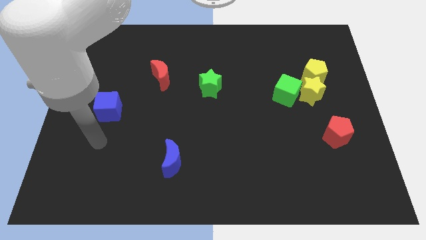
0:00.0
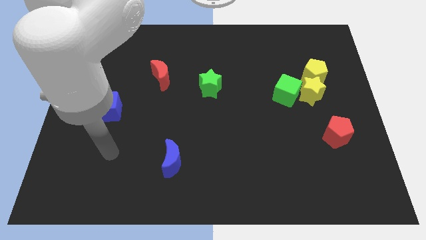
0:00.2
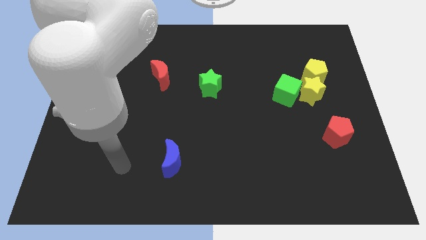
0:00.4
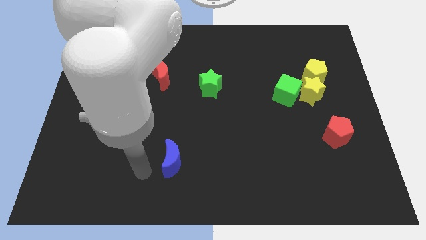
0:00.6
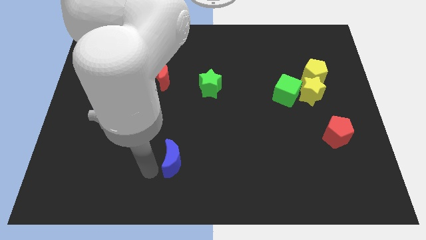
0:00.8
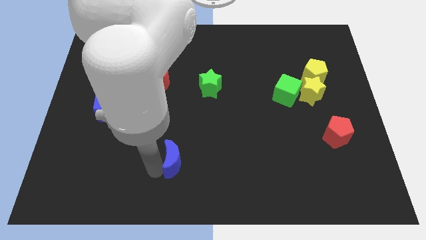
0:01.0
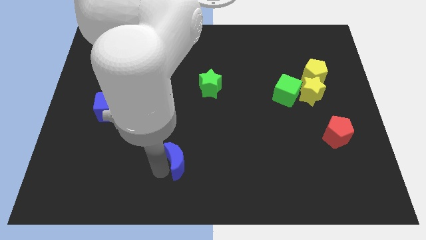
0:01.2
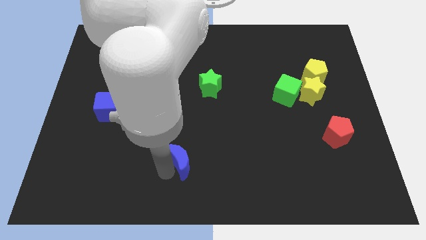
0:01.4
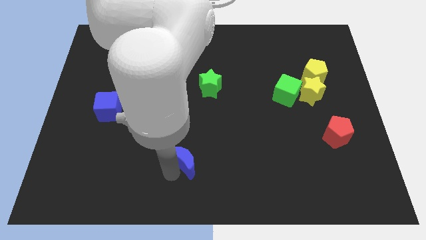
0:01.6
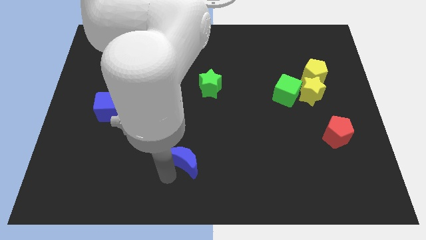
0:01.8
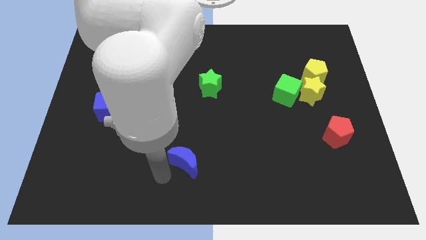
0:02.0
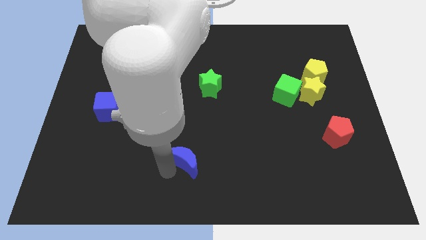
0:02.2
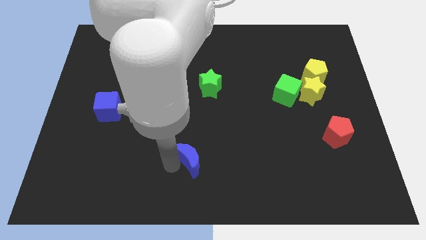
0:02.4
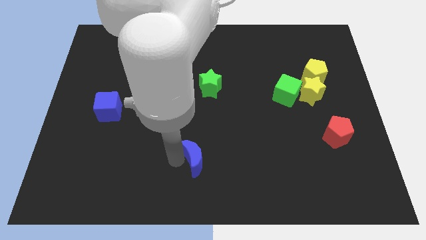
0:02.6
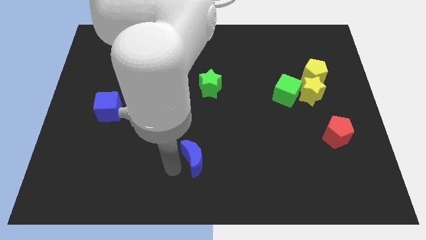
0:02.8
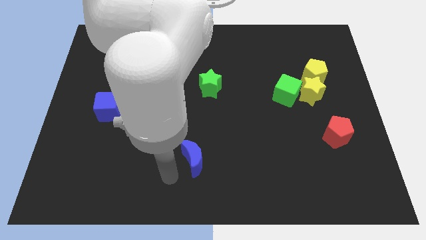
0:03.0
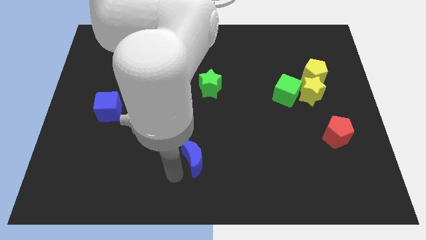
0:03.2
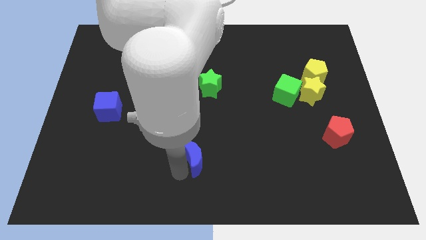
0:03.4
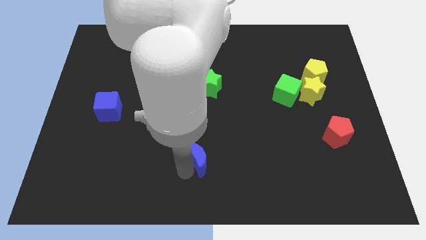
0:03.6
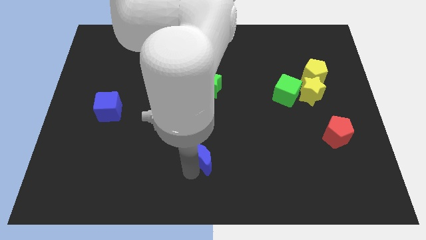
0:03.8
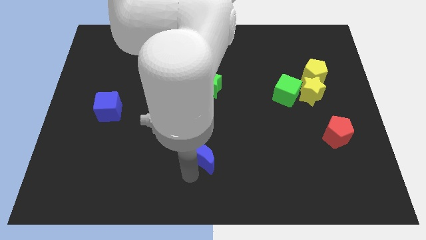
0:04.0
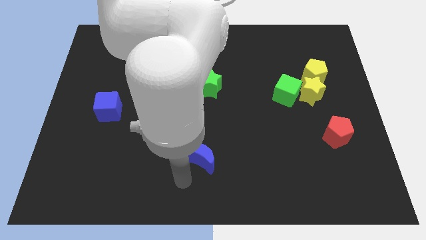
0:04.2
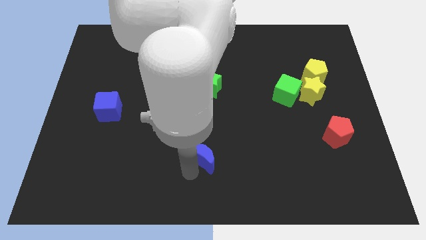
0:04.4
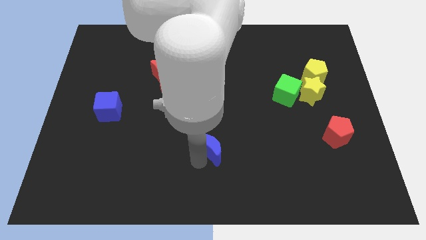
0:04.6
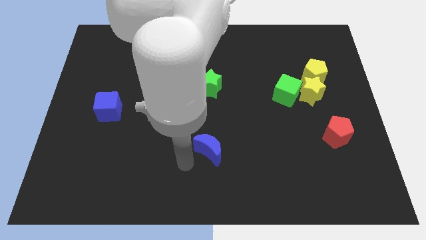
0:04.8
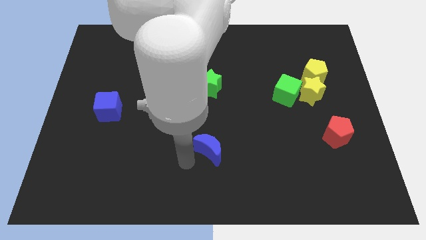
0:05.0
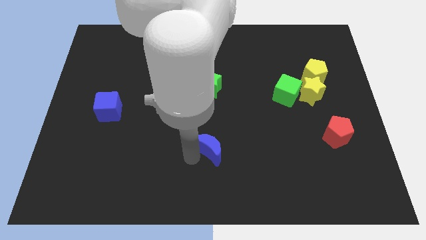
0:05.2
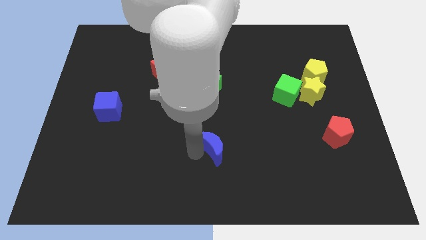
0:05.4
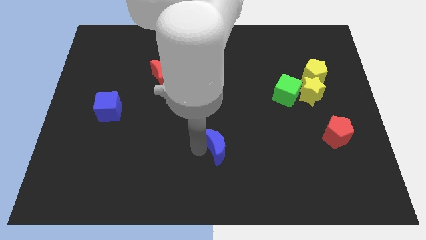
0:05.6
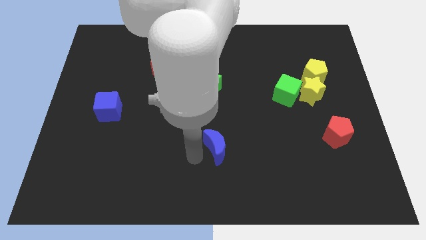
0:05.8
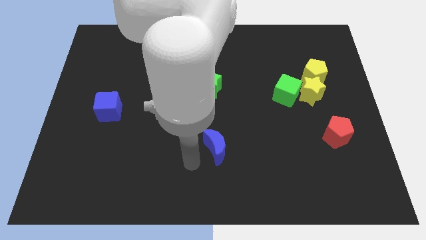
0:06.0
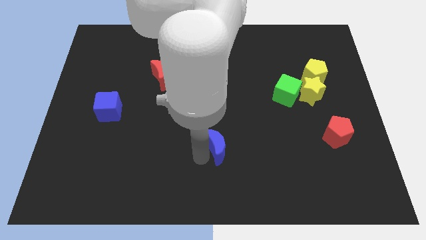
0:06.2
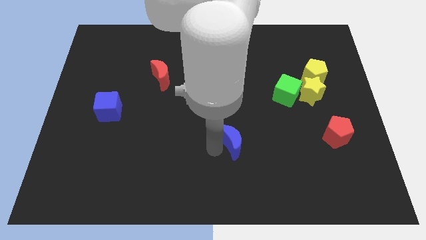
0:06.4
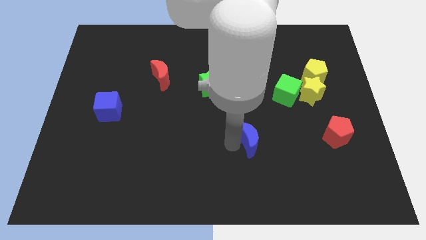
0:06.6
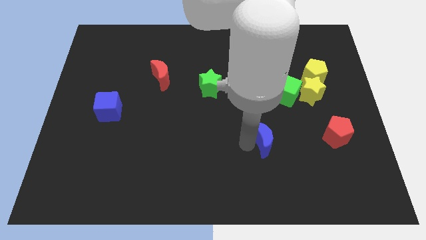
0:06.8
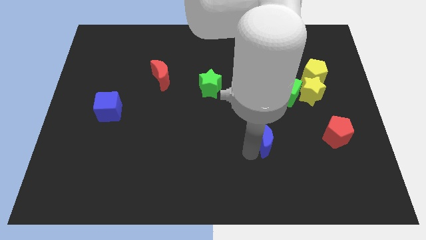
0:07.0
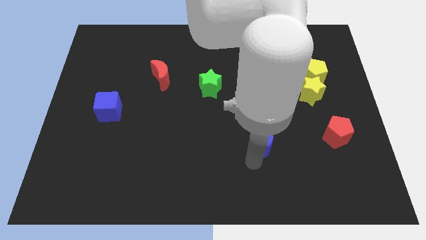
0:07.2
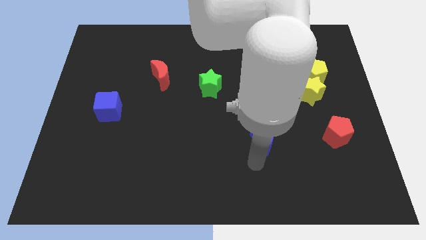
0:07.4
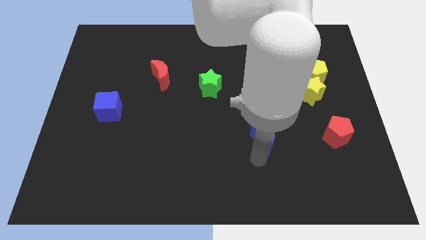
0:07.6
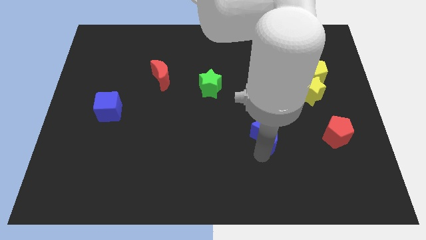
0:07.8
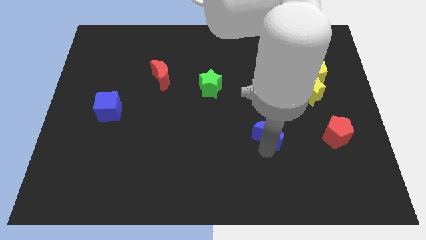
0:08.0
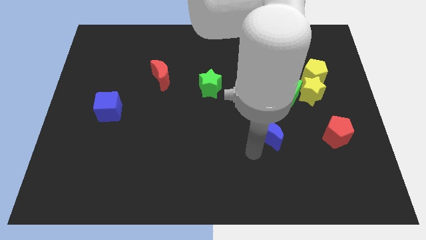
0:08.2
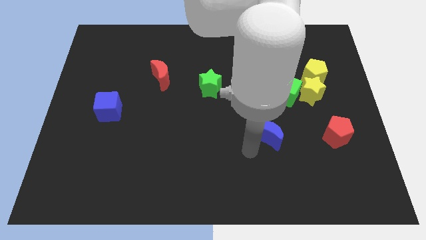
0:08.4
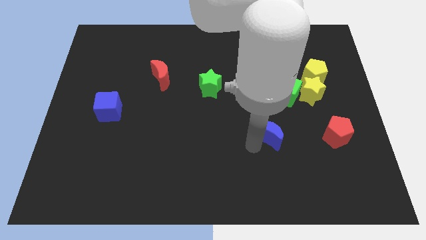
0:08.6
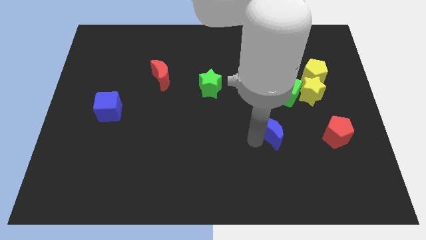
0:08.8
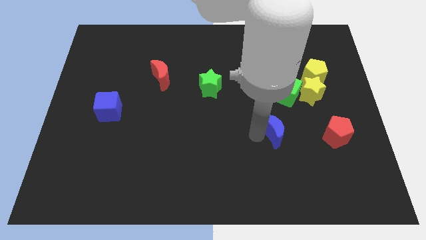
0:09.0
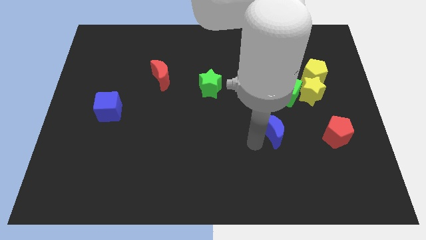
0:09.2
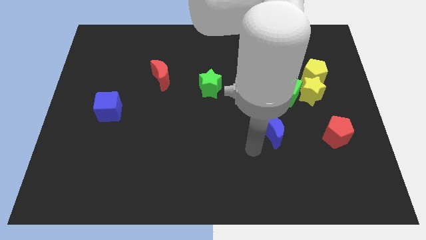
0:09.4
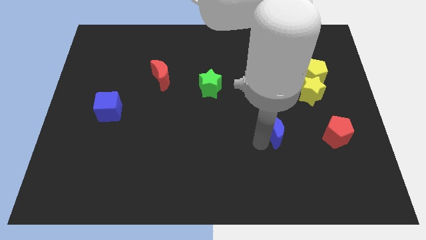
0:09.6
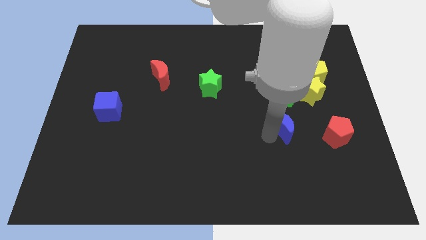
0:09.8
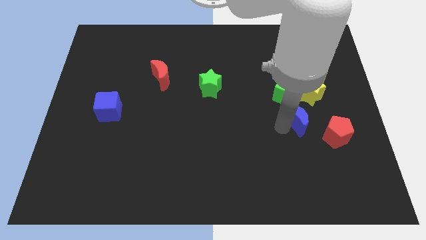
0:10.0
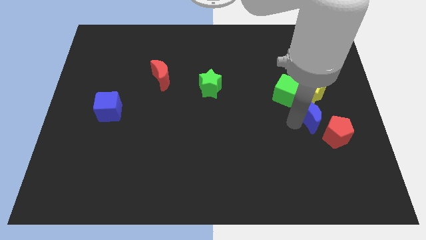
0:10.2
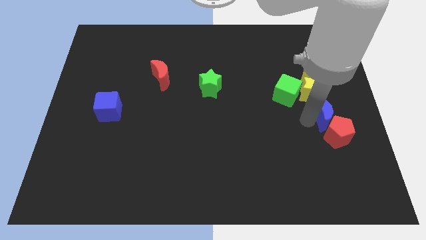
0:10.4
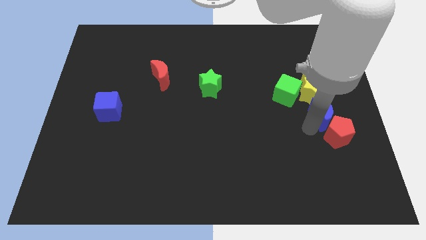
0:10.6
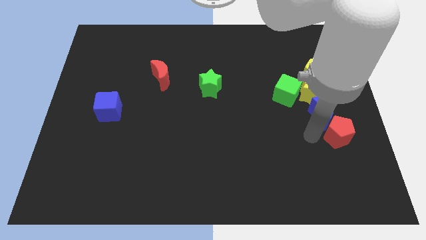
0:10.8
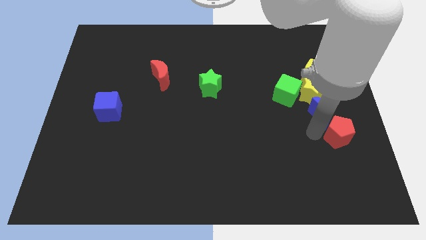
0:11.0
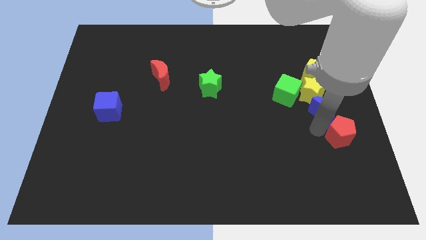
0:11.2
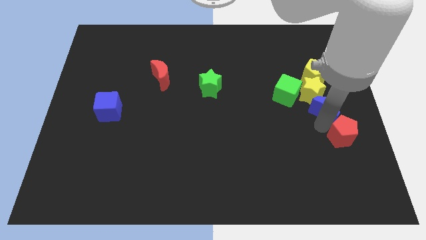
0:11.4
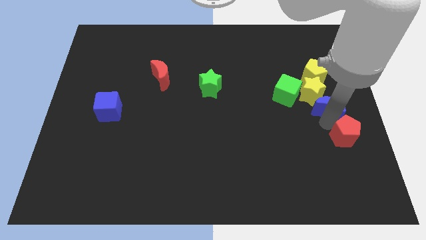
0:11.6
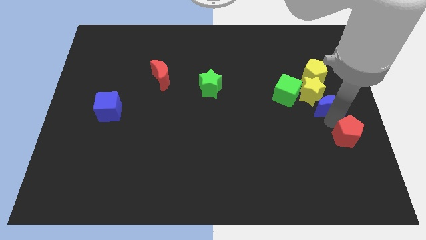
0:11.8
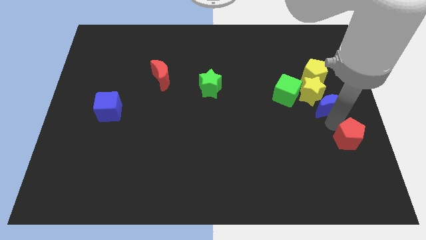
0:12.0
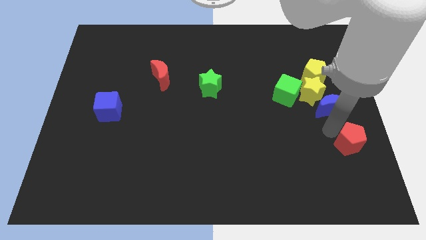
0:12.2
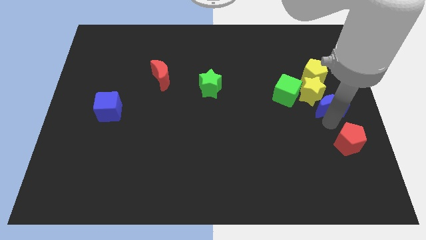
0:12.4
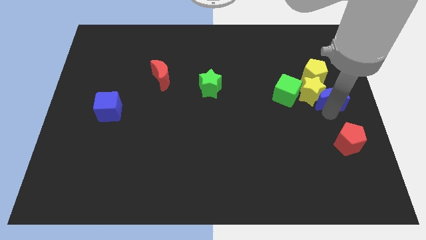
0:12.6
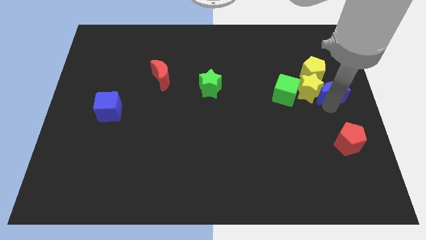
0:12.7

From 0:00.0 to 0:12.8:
slide the blue moon to the top right of the yellow star
